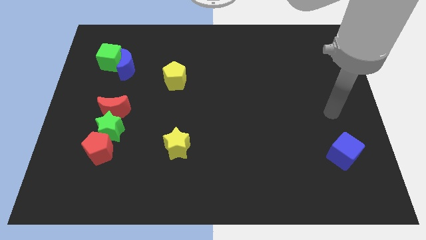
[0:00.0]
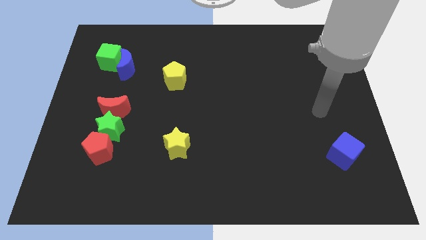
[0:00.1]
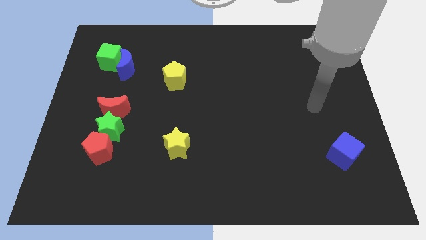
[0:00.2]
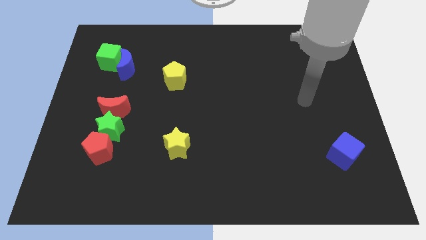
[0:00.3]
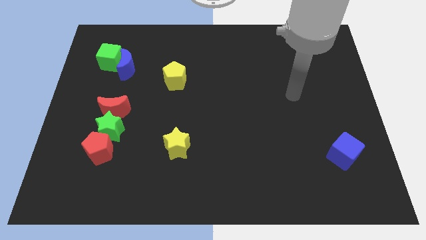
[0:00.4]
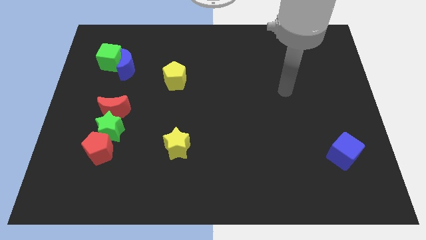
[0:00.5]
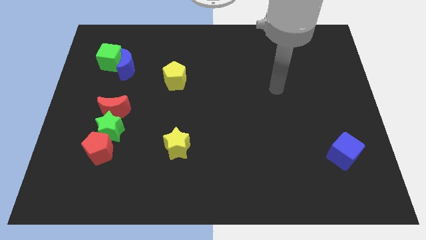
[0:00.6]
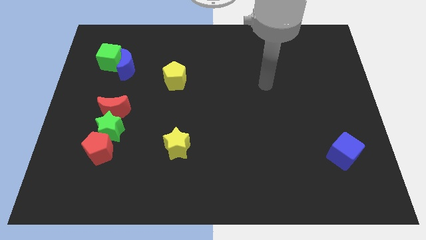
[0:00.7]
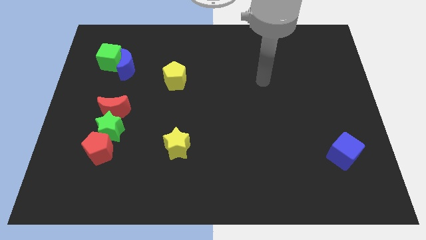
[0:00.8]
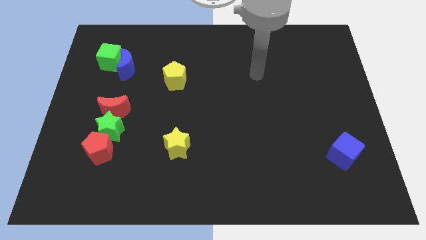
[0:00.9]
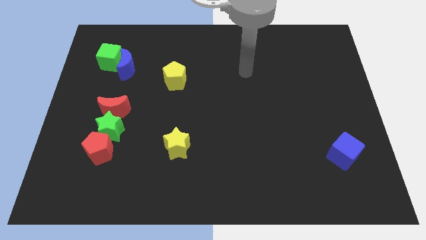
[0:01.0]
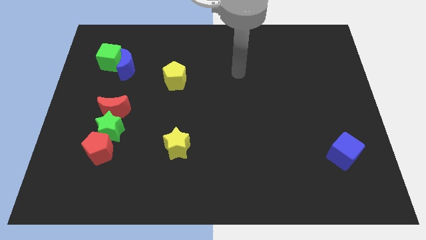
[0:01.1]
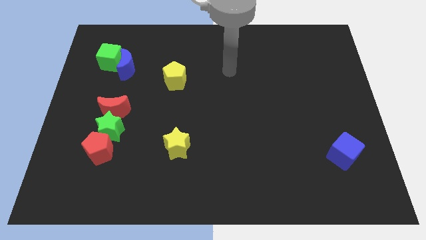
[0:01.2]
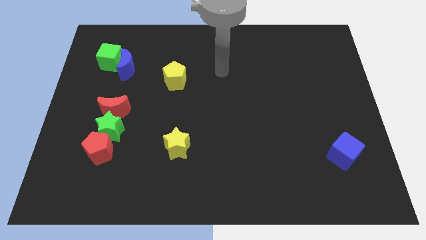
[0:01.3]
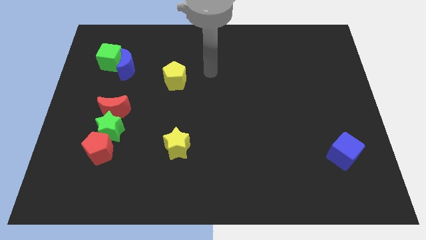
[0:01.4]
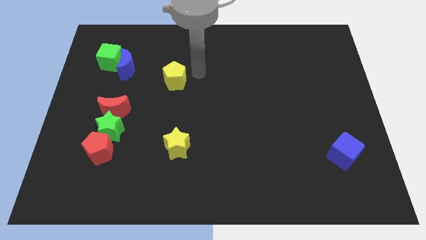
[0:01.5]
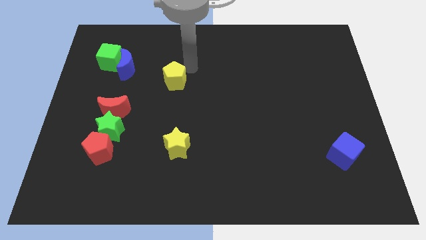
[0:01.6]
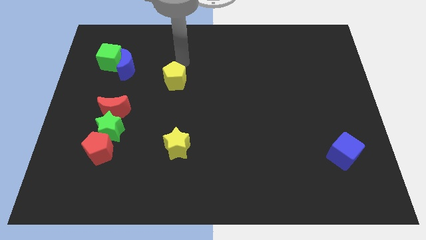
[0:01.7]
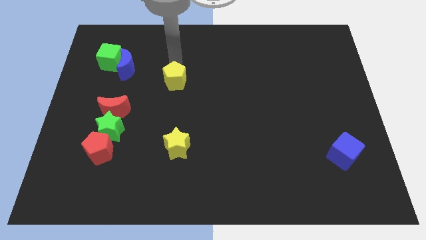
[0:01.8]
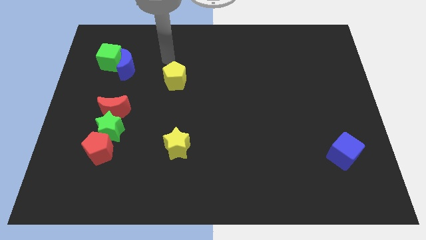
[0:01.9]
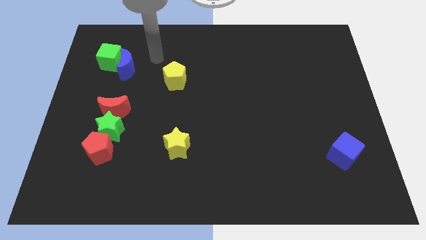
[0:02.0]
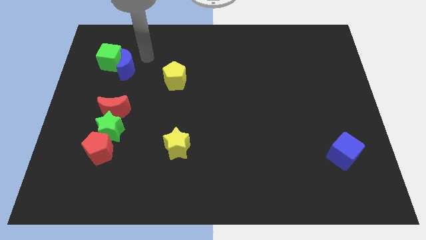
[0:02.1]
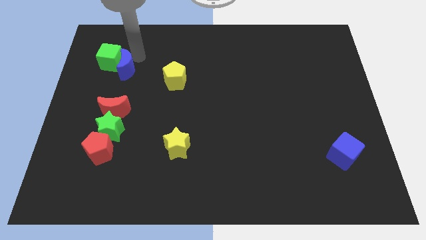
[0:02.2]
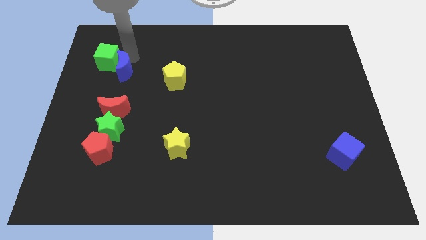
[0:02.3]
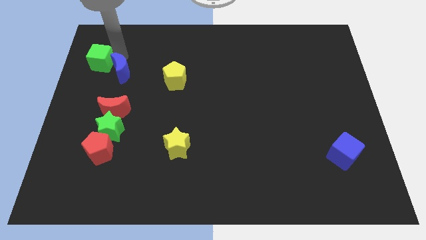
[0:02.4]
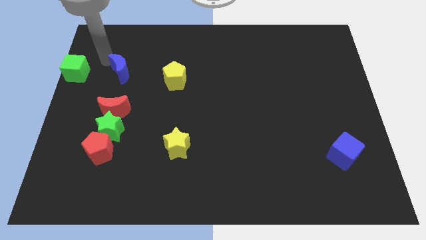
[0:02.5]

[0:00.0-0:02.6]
move the blue moon away from the green cube

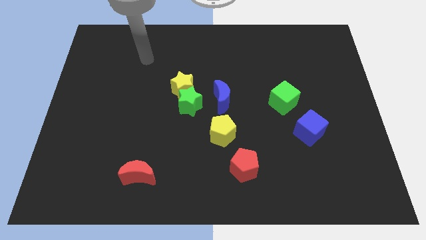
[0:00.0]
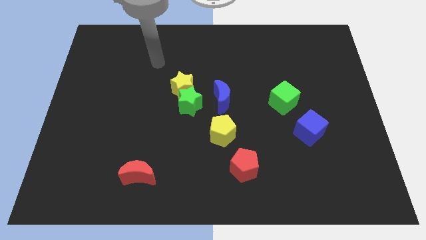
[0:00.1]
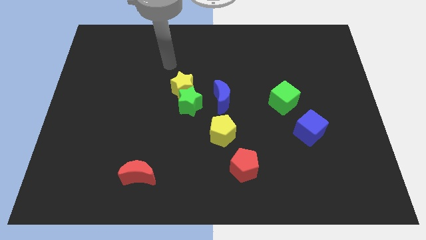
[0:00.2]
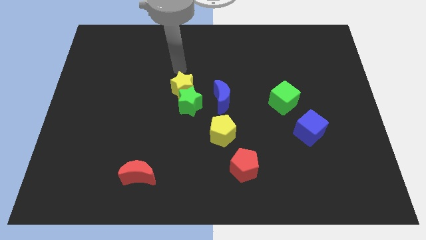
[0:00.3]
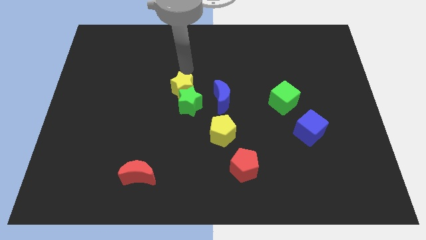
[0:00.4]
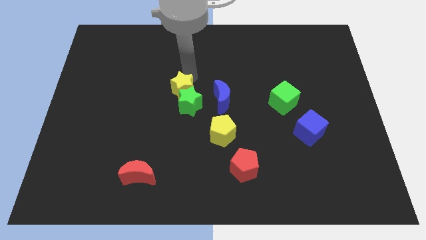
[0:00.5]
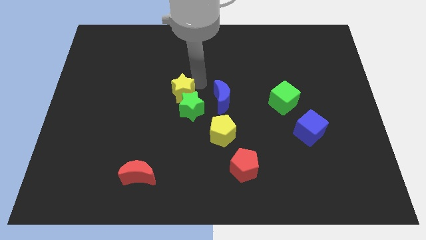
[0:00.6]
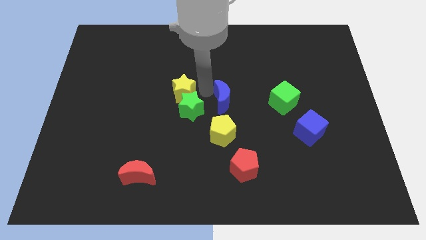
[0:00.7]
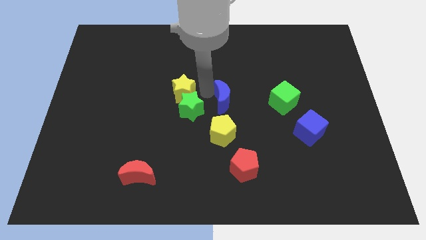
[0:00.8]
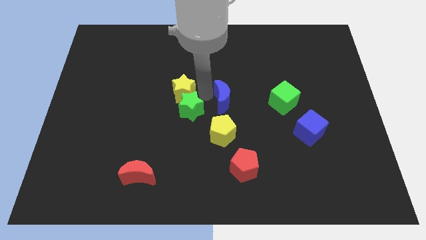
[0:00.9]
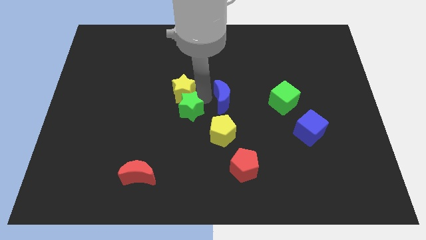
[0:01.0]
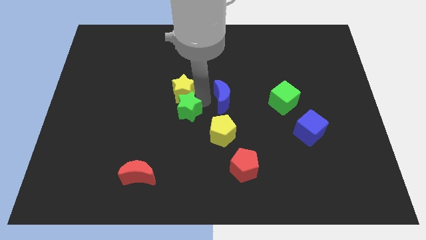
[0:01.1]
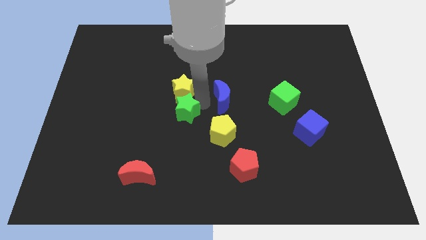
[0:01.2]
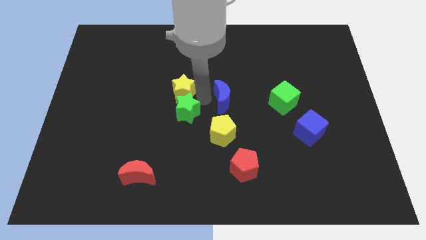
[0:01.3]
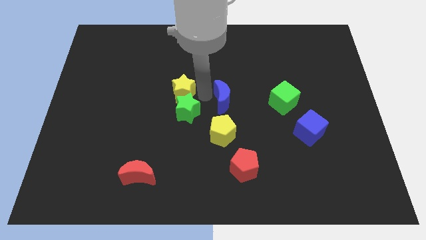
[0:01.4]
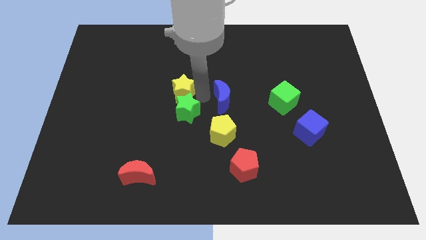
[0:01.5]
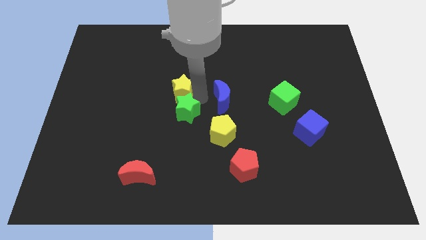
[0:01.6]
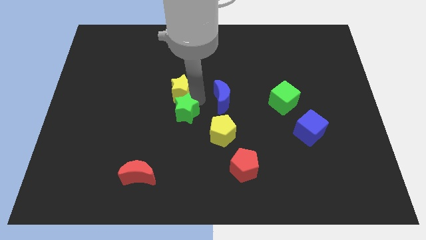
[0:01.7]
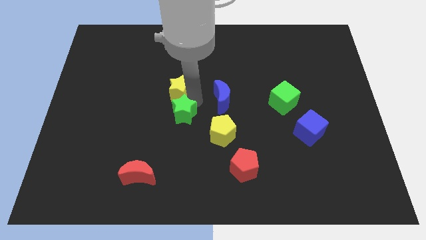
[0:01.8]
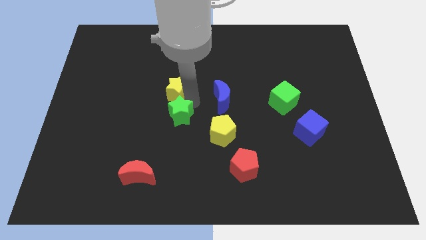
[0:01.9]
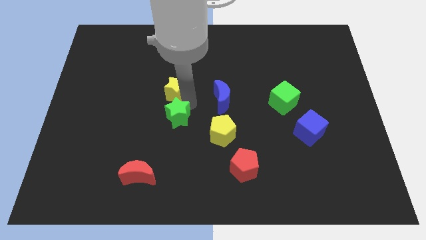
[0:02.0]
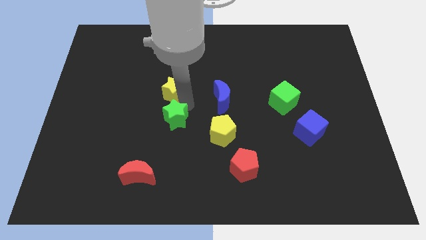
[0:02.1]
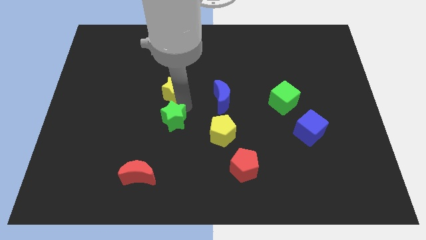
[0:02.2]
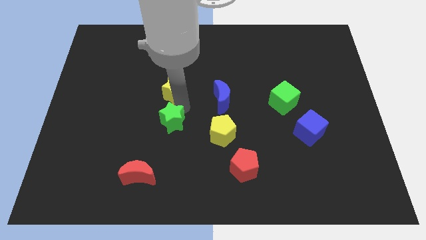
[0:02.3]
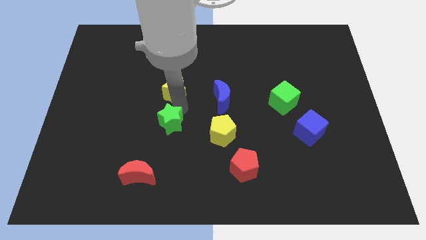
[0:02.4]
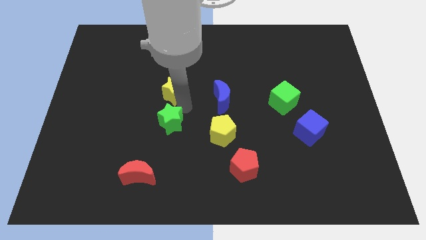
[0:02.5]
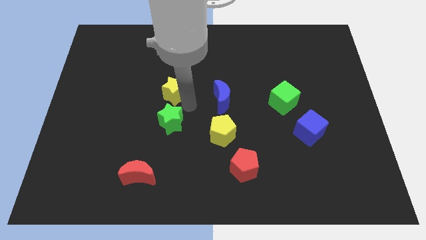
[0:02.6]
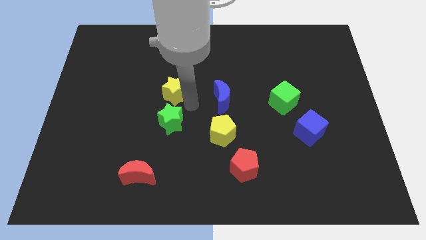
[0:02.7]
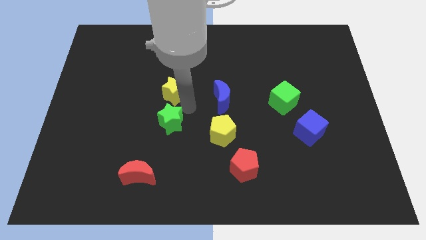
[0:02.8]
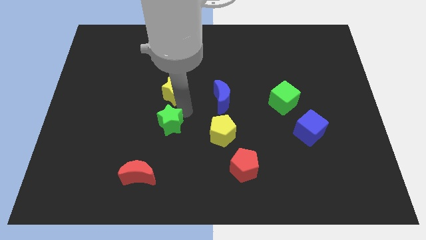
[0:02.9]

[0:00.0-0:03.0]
separate the green star from the yellow star and blue moon

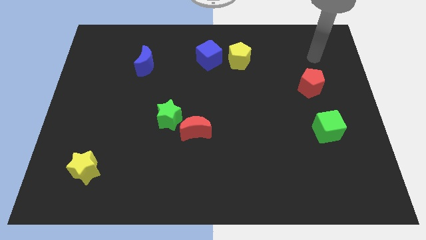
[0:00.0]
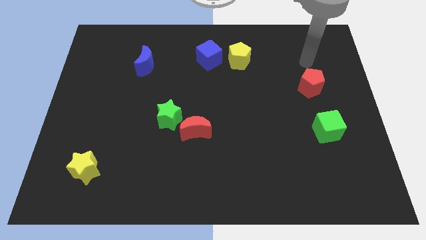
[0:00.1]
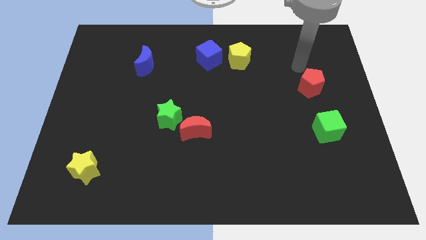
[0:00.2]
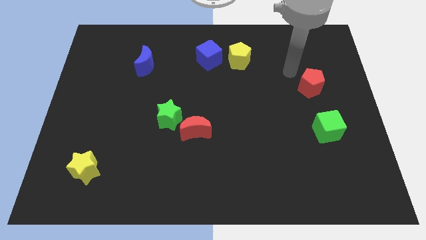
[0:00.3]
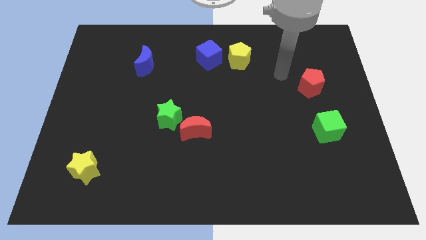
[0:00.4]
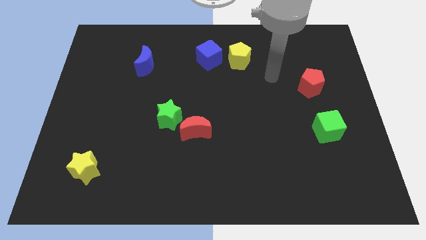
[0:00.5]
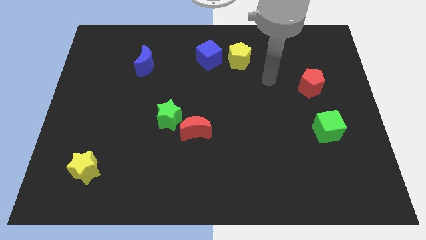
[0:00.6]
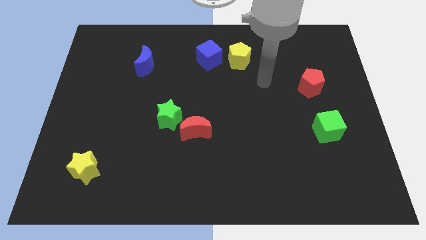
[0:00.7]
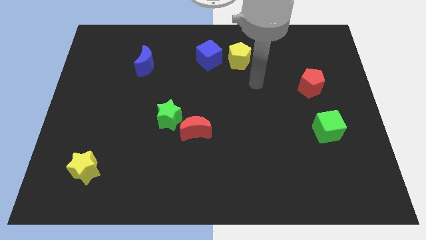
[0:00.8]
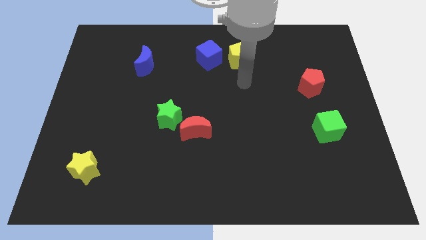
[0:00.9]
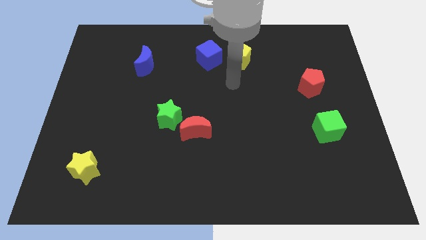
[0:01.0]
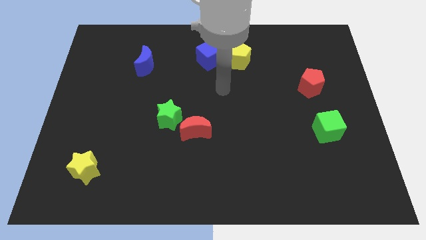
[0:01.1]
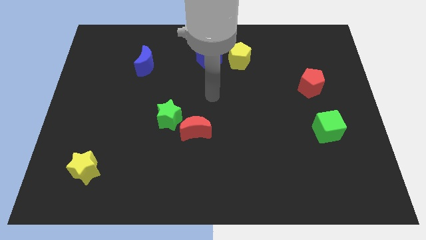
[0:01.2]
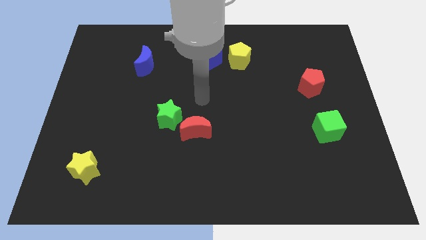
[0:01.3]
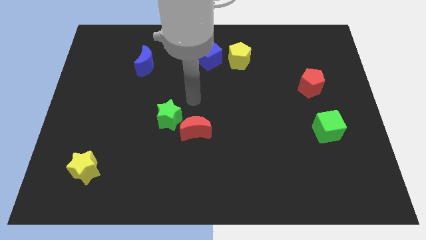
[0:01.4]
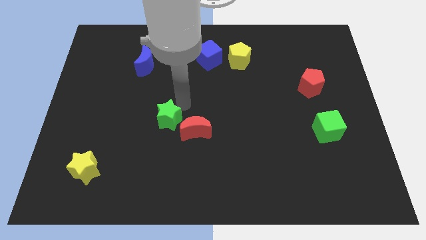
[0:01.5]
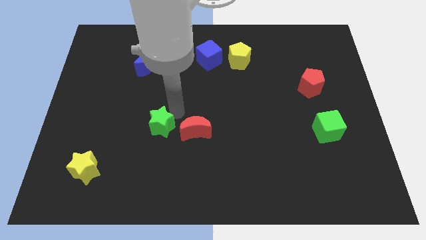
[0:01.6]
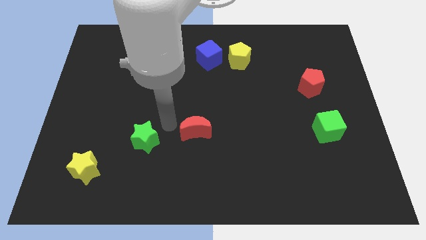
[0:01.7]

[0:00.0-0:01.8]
separate the red moon from the green star

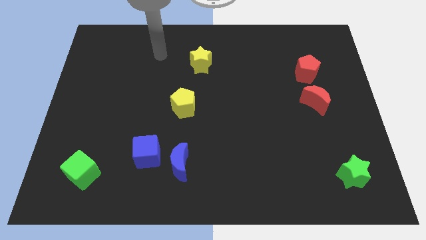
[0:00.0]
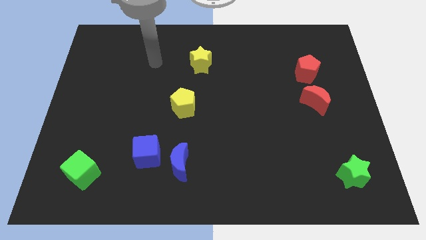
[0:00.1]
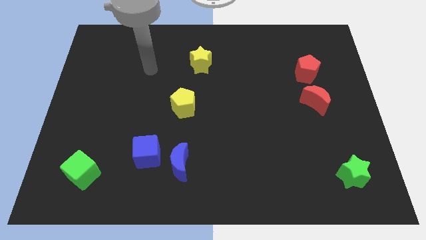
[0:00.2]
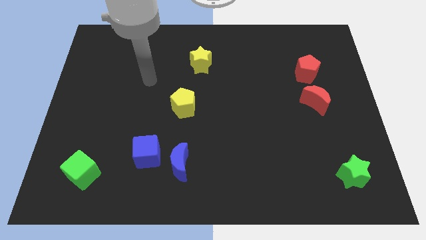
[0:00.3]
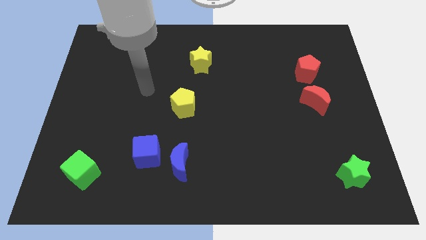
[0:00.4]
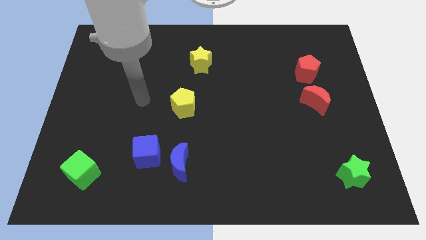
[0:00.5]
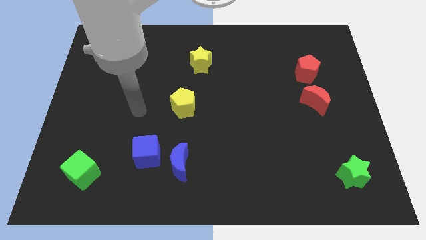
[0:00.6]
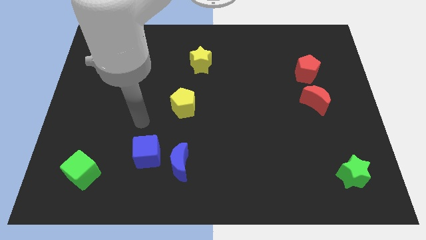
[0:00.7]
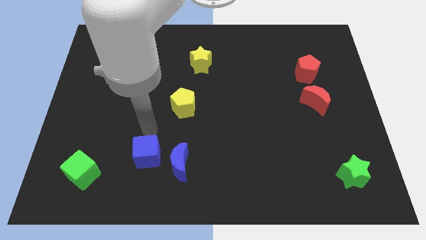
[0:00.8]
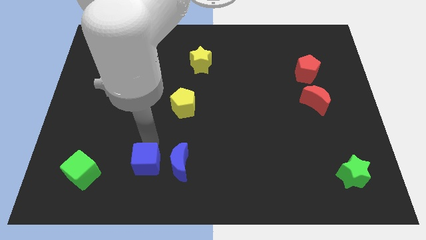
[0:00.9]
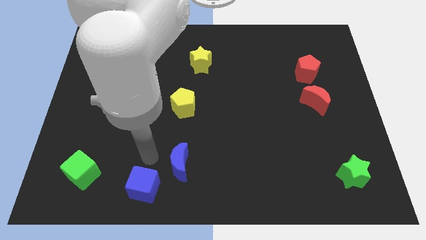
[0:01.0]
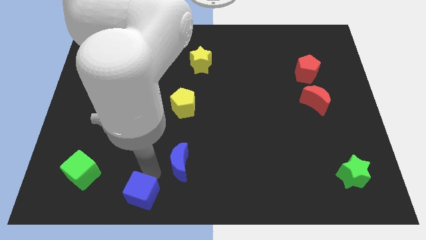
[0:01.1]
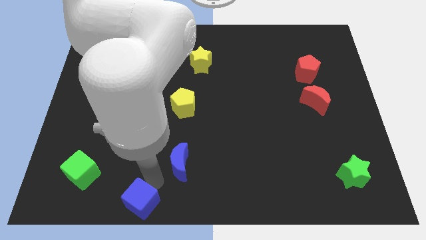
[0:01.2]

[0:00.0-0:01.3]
move the blue moon away from the blue cube

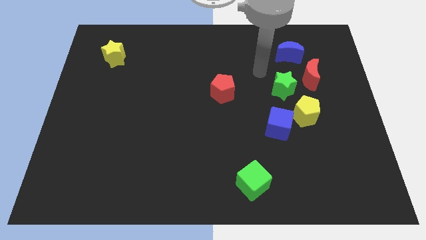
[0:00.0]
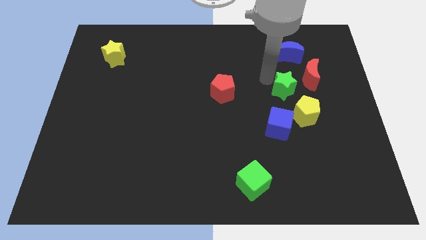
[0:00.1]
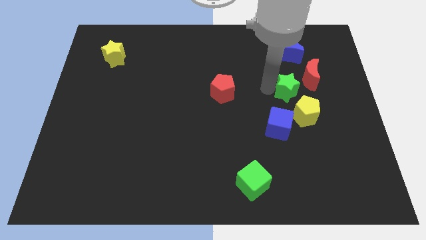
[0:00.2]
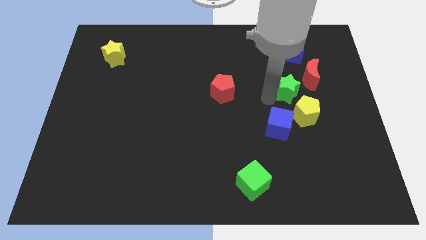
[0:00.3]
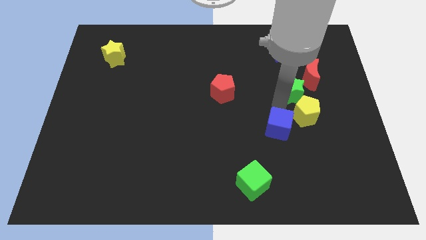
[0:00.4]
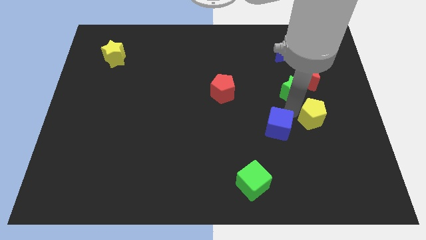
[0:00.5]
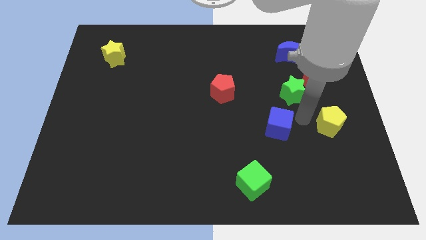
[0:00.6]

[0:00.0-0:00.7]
pull the blue cube apart from the yellow pentagon
